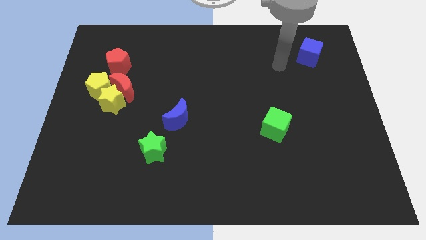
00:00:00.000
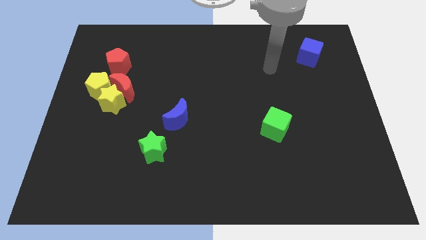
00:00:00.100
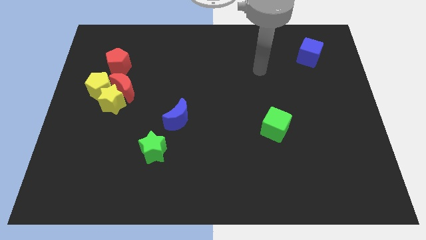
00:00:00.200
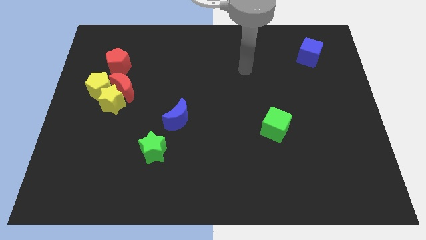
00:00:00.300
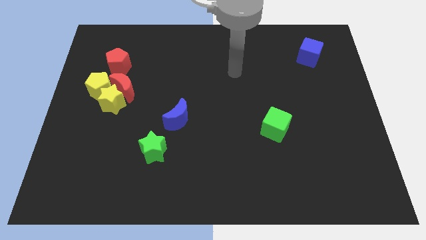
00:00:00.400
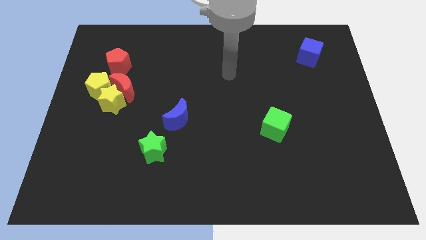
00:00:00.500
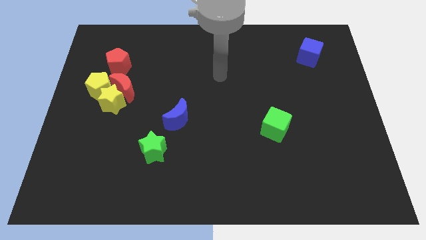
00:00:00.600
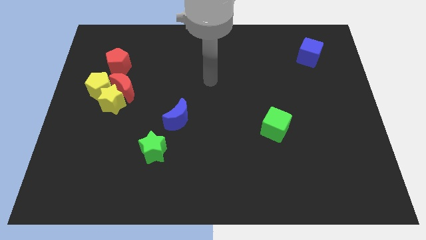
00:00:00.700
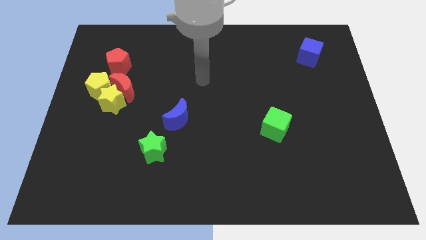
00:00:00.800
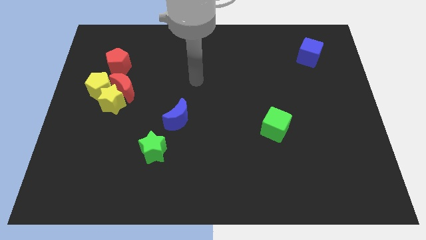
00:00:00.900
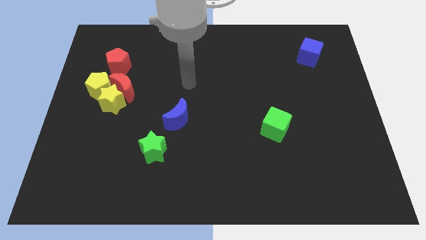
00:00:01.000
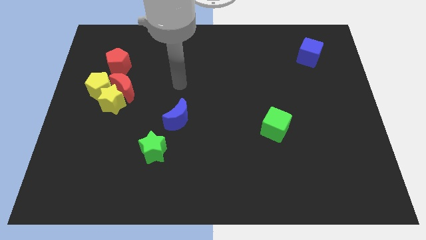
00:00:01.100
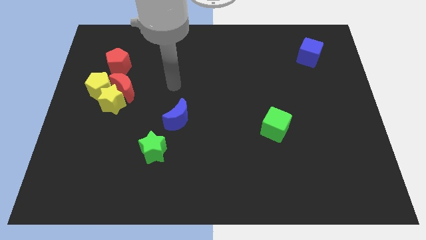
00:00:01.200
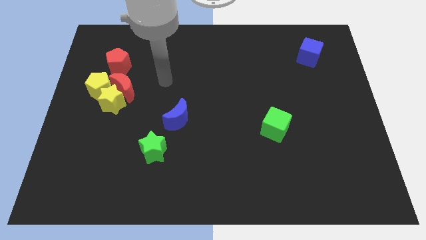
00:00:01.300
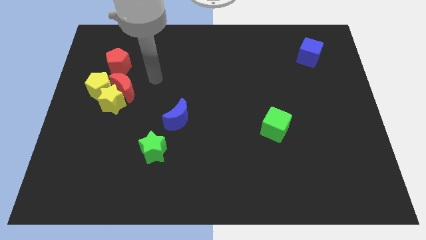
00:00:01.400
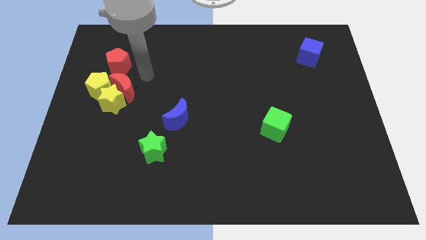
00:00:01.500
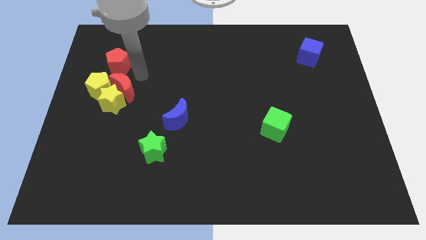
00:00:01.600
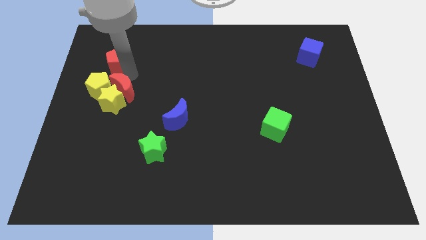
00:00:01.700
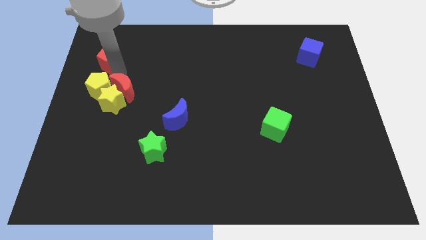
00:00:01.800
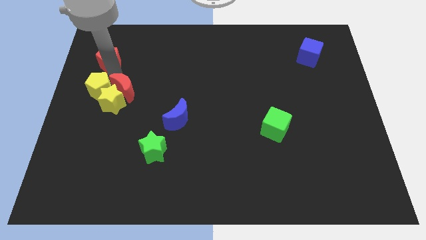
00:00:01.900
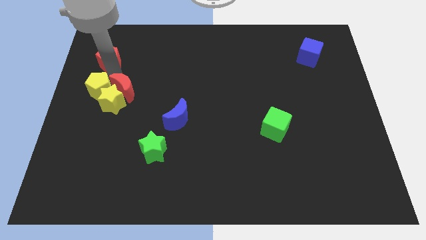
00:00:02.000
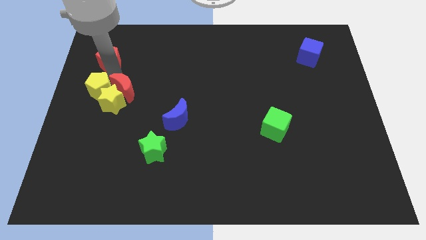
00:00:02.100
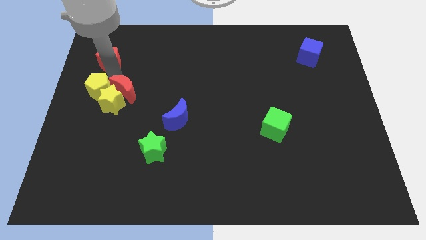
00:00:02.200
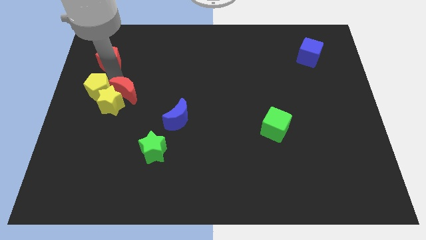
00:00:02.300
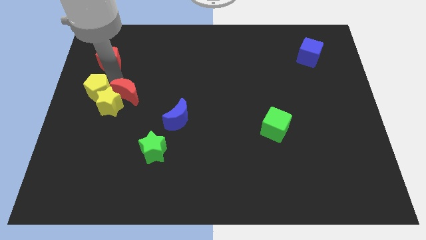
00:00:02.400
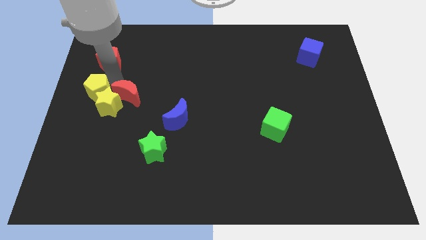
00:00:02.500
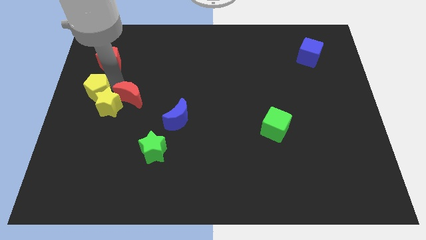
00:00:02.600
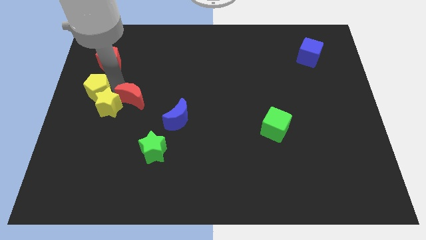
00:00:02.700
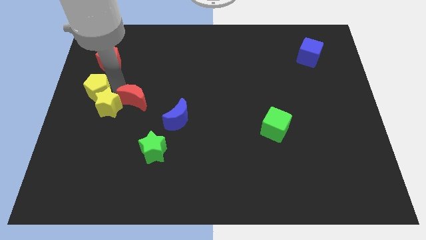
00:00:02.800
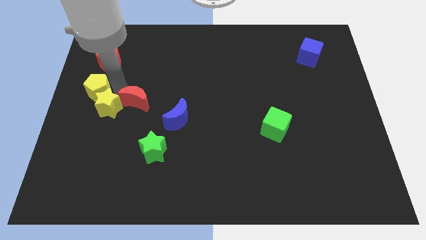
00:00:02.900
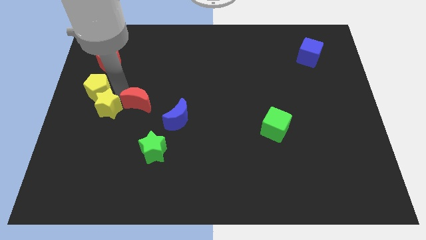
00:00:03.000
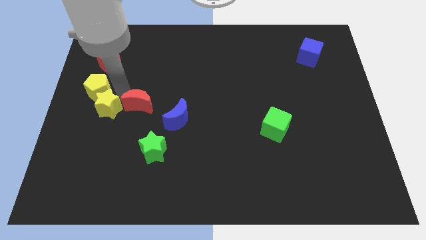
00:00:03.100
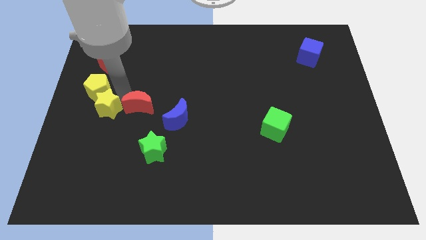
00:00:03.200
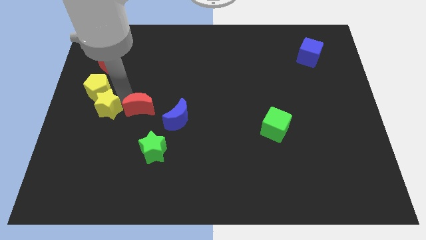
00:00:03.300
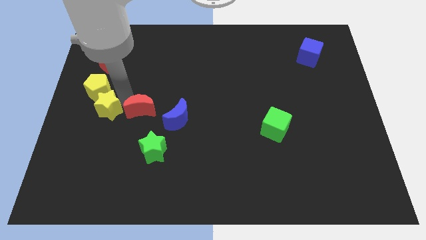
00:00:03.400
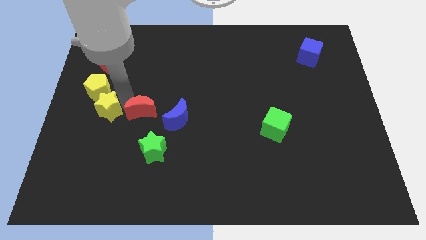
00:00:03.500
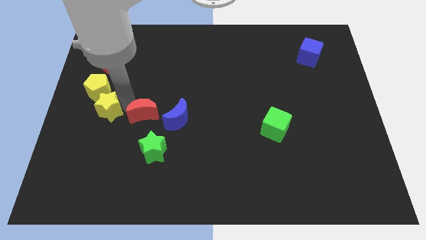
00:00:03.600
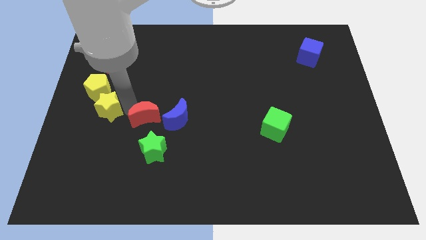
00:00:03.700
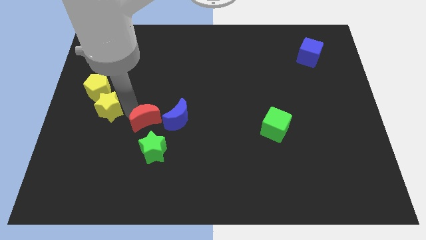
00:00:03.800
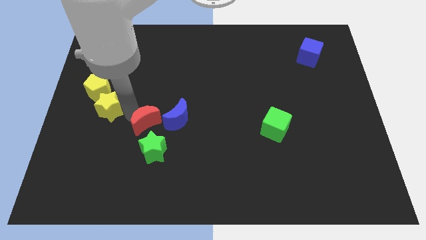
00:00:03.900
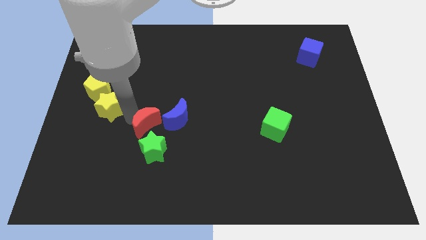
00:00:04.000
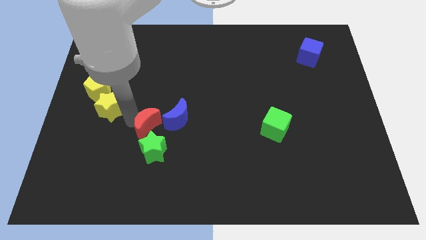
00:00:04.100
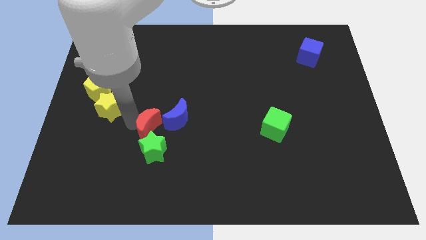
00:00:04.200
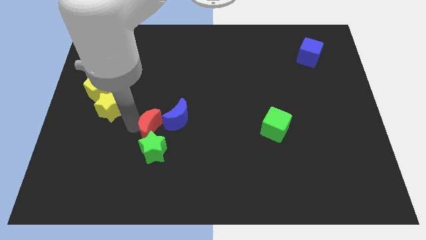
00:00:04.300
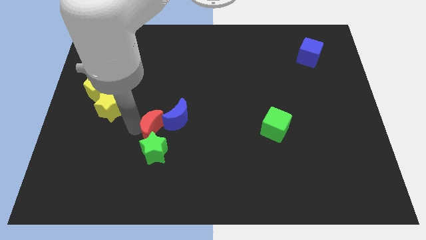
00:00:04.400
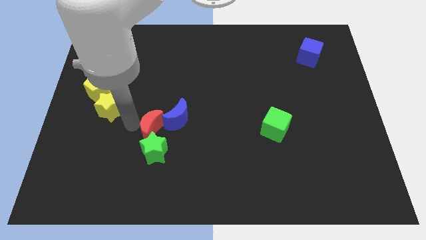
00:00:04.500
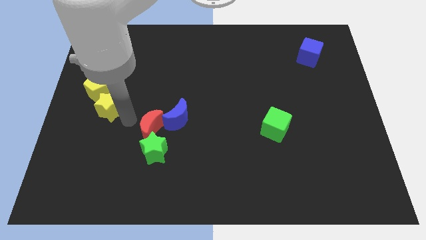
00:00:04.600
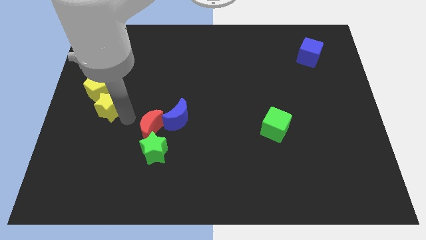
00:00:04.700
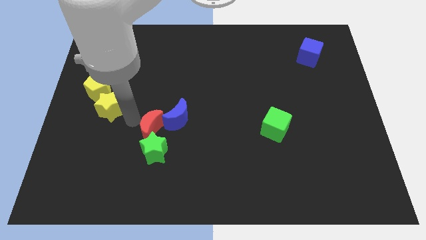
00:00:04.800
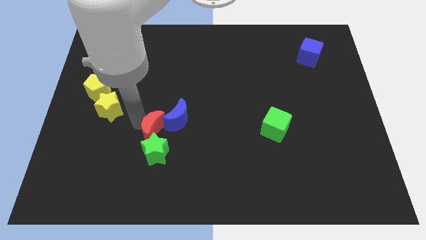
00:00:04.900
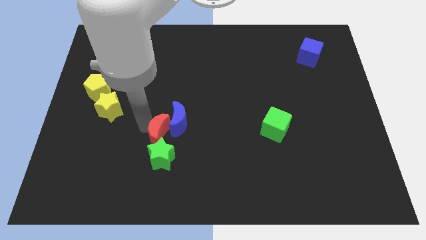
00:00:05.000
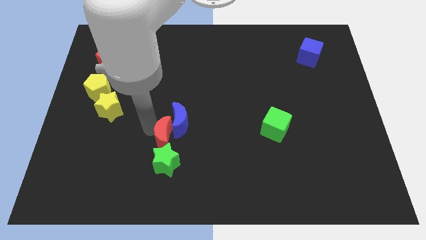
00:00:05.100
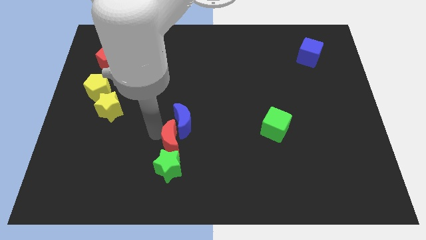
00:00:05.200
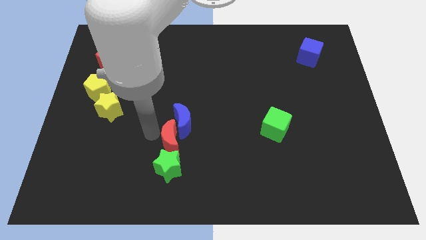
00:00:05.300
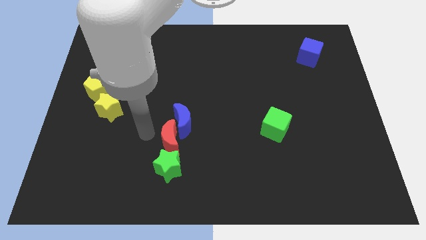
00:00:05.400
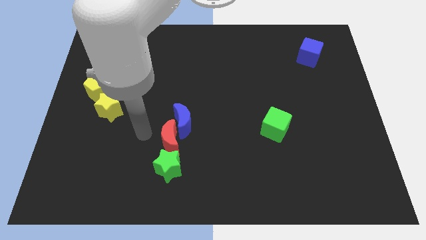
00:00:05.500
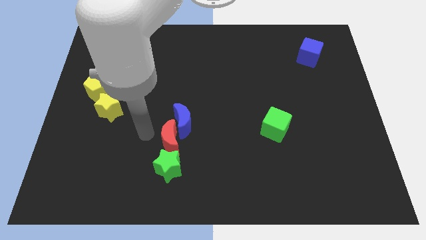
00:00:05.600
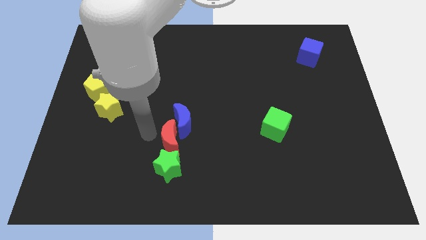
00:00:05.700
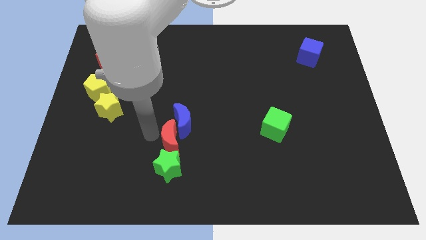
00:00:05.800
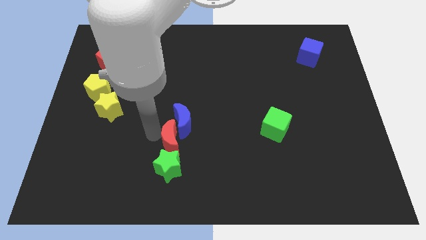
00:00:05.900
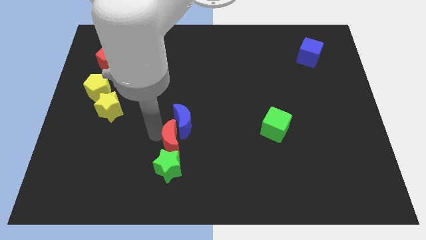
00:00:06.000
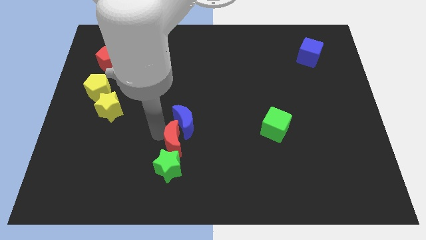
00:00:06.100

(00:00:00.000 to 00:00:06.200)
push the red moon downwards and right

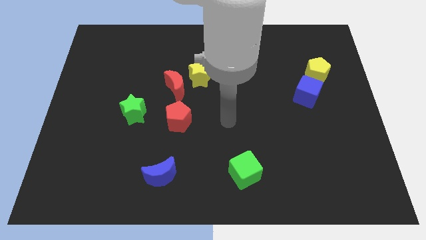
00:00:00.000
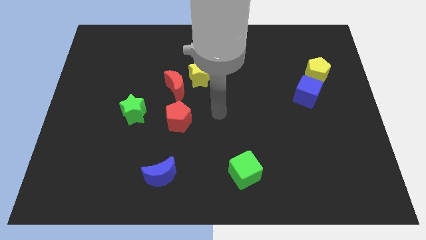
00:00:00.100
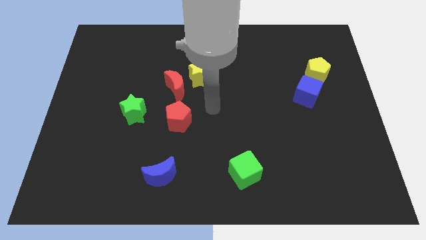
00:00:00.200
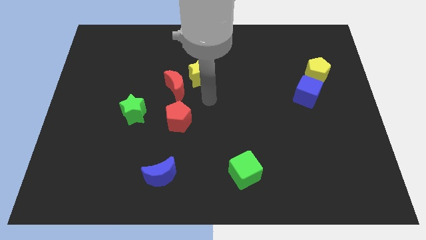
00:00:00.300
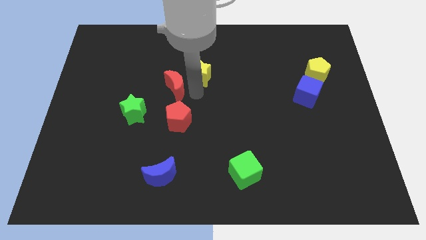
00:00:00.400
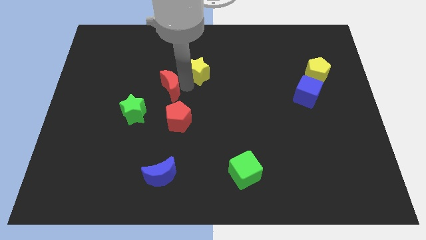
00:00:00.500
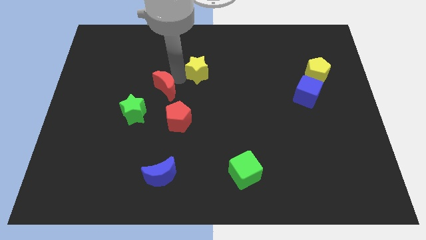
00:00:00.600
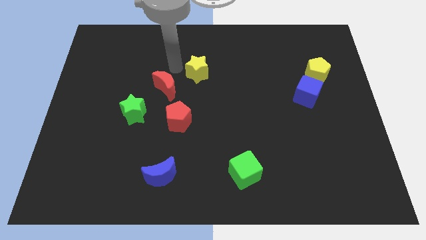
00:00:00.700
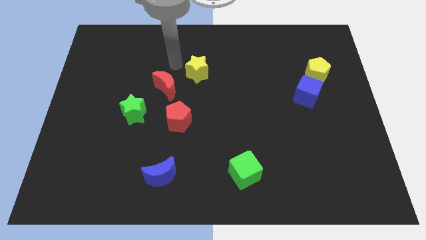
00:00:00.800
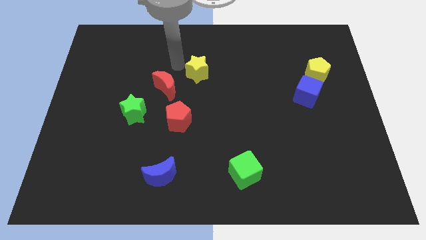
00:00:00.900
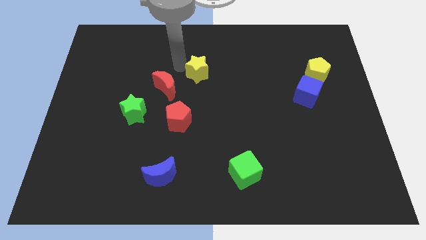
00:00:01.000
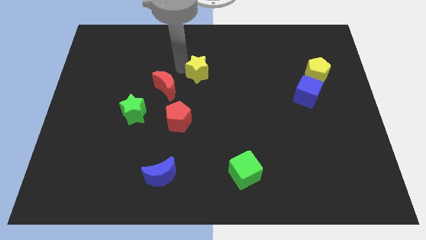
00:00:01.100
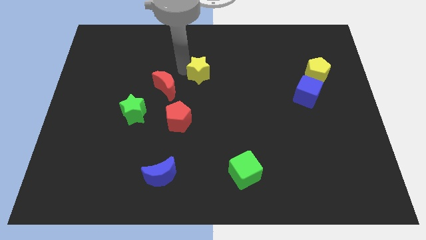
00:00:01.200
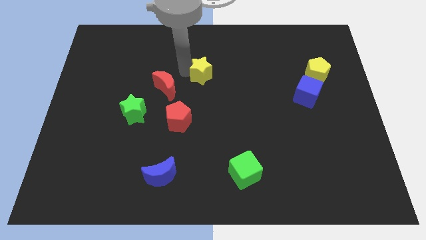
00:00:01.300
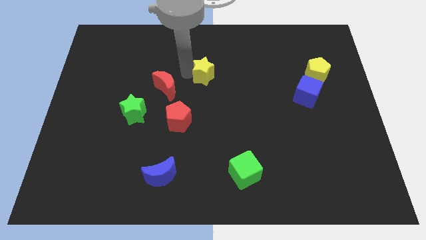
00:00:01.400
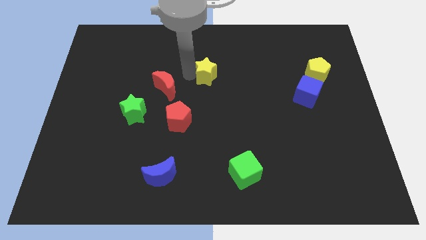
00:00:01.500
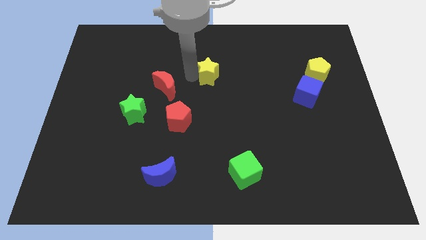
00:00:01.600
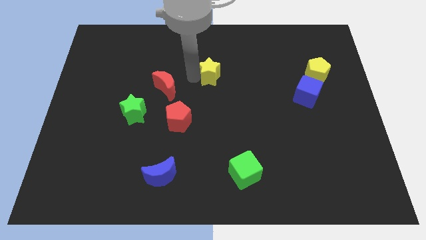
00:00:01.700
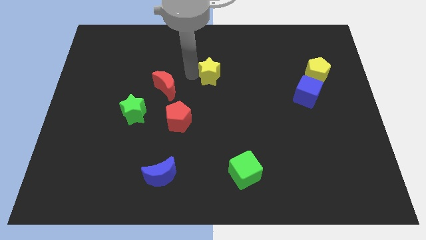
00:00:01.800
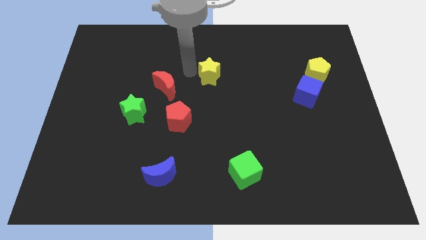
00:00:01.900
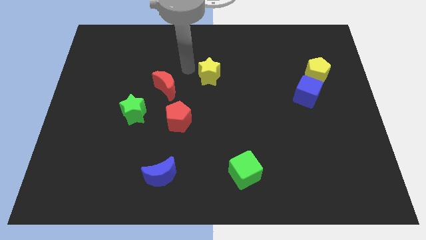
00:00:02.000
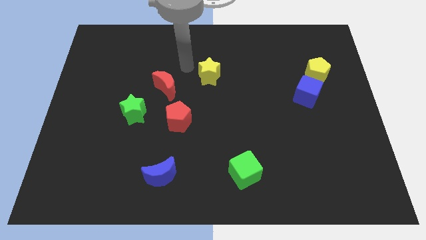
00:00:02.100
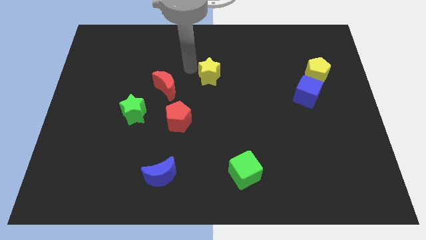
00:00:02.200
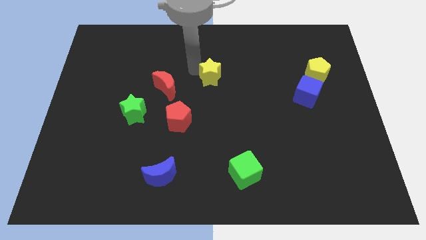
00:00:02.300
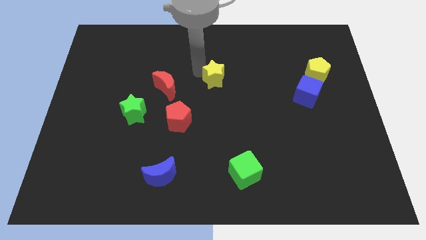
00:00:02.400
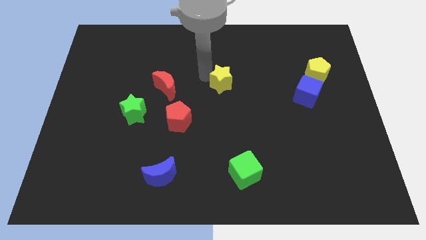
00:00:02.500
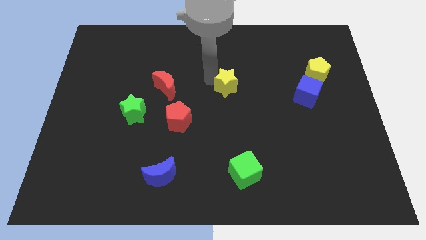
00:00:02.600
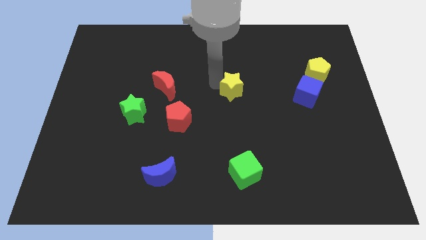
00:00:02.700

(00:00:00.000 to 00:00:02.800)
push the yellow star right a bit
